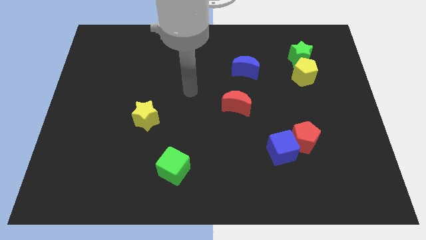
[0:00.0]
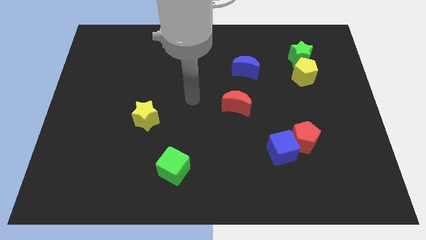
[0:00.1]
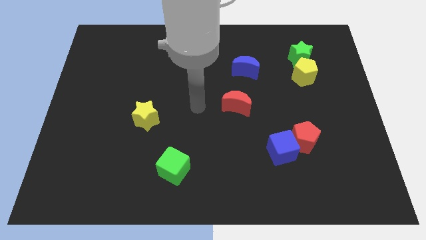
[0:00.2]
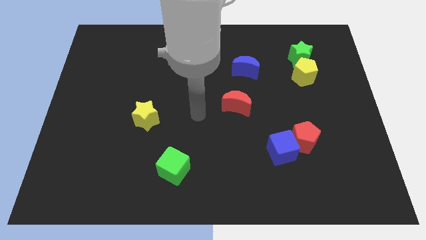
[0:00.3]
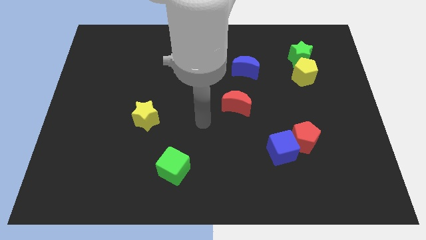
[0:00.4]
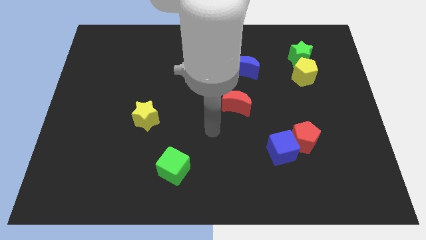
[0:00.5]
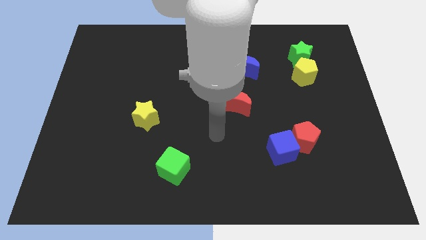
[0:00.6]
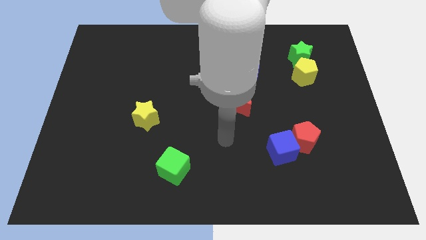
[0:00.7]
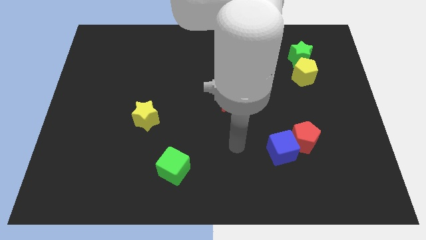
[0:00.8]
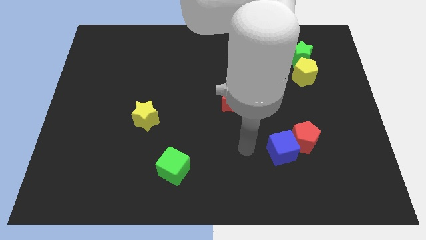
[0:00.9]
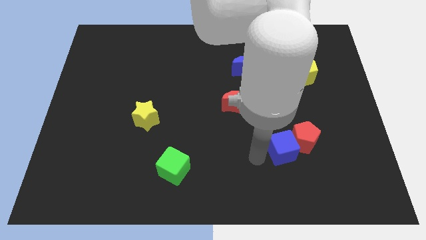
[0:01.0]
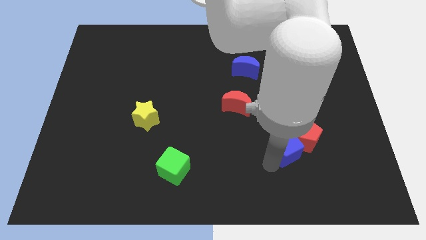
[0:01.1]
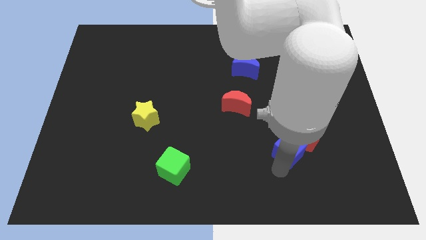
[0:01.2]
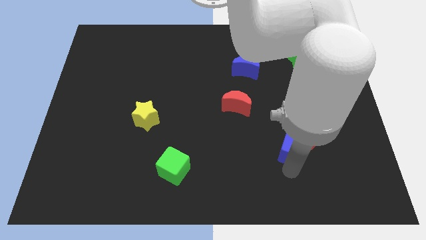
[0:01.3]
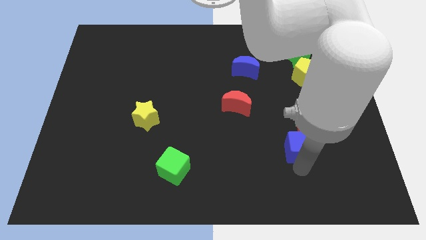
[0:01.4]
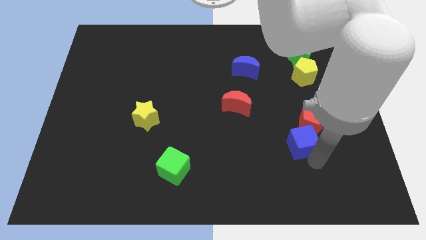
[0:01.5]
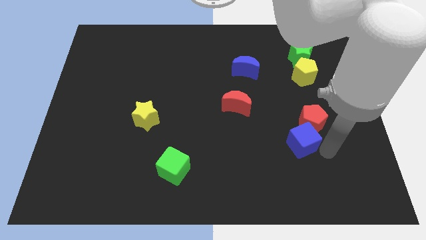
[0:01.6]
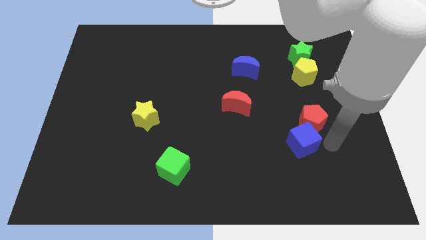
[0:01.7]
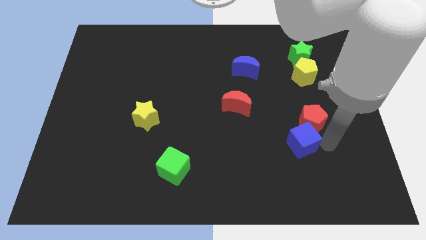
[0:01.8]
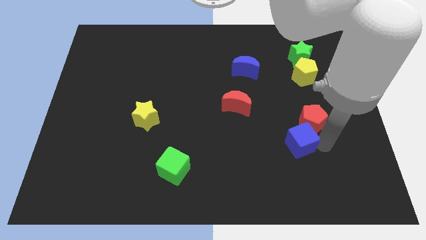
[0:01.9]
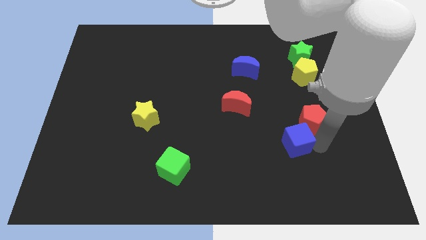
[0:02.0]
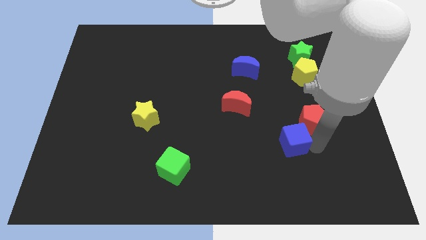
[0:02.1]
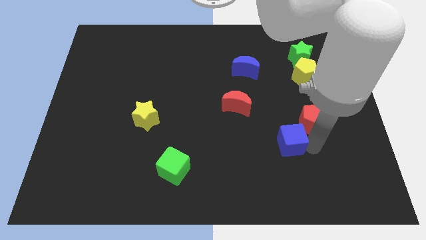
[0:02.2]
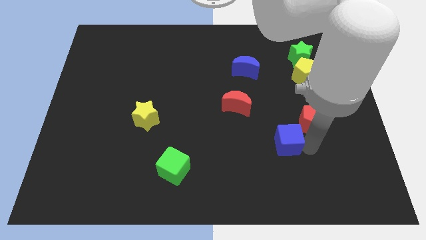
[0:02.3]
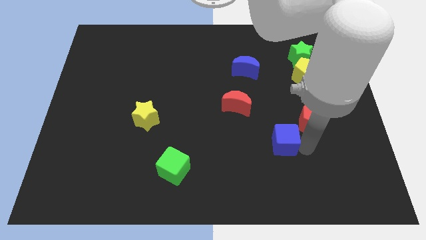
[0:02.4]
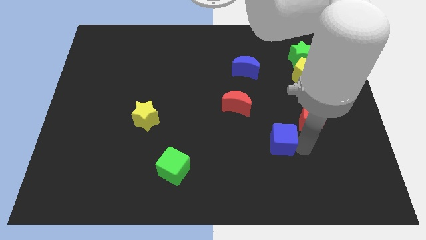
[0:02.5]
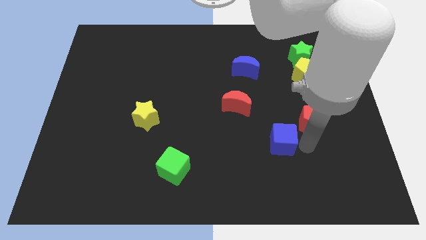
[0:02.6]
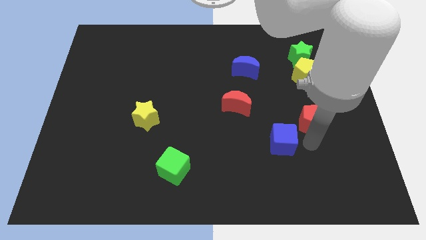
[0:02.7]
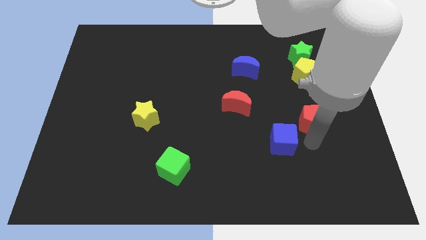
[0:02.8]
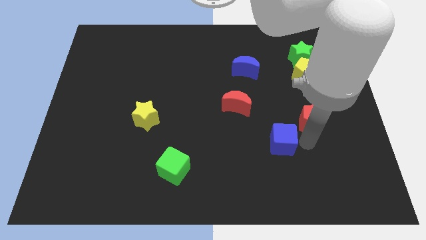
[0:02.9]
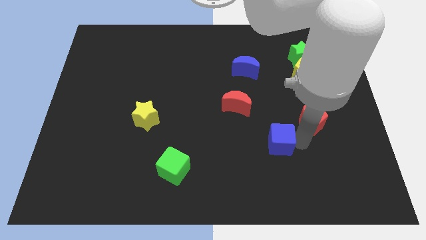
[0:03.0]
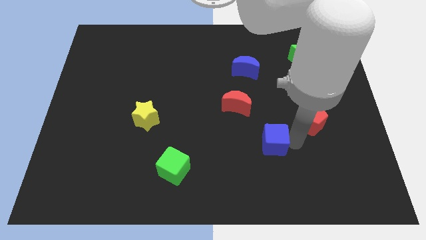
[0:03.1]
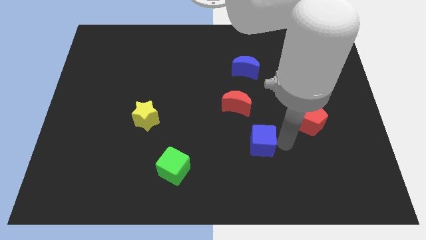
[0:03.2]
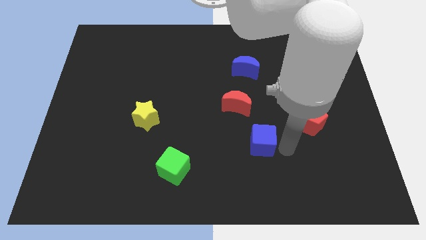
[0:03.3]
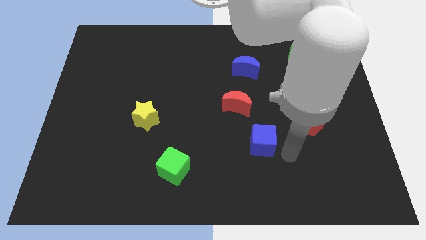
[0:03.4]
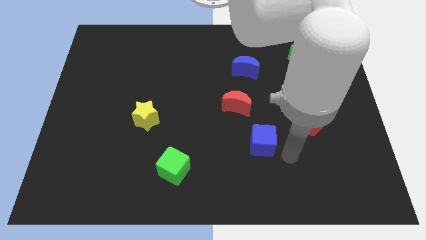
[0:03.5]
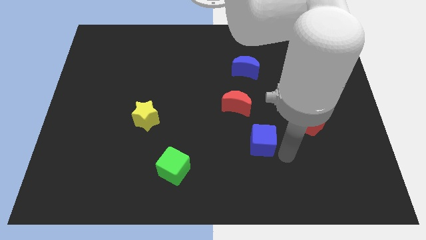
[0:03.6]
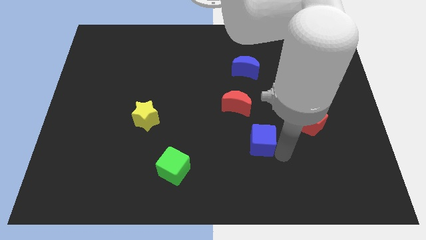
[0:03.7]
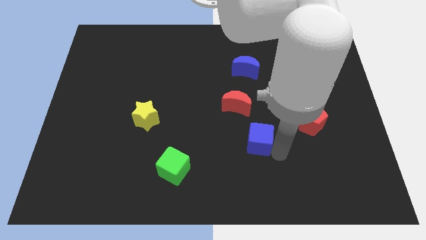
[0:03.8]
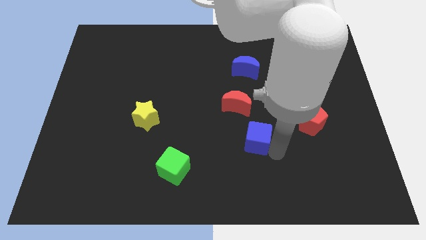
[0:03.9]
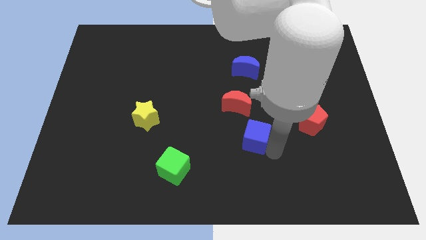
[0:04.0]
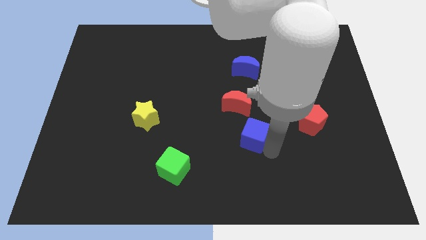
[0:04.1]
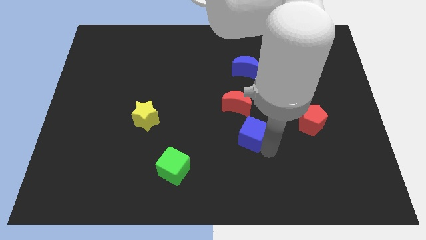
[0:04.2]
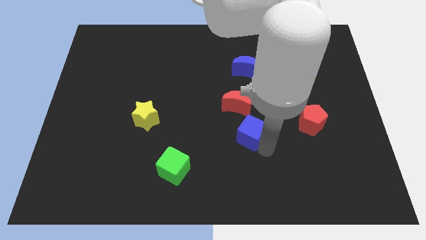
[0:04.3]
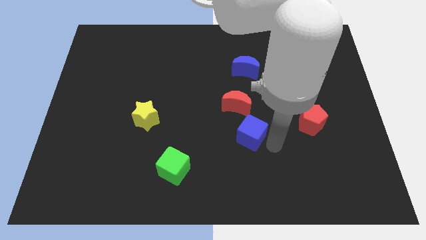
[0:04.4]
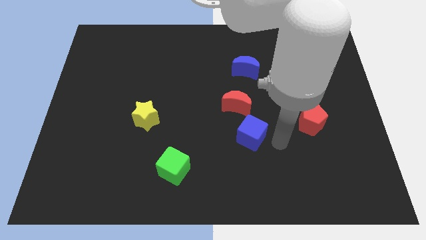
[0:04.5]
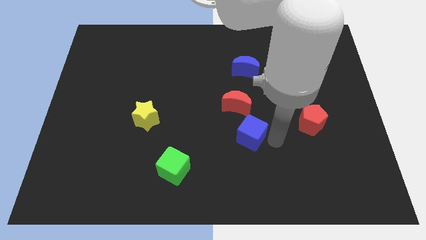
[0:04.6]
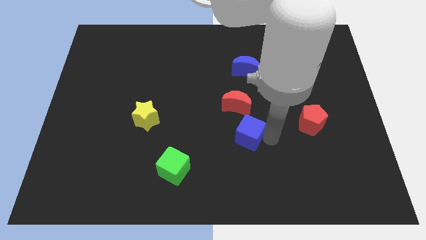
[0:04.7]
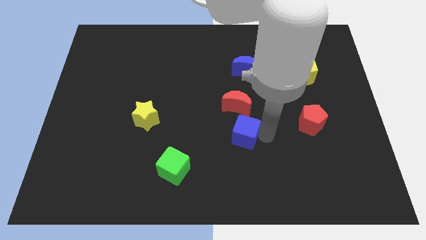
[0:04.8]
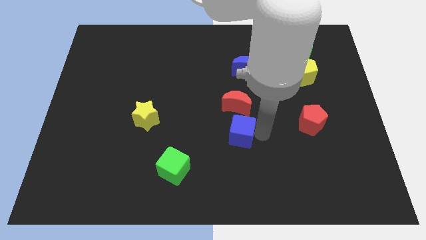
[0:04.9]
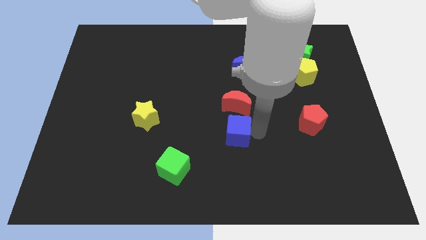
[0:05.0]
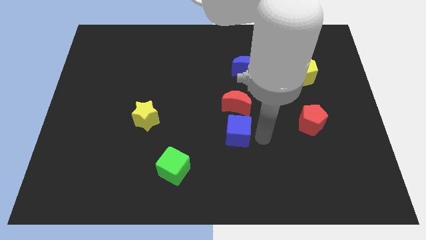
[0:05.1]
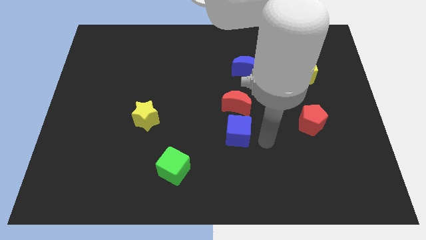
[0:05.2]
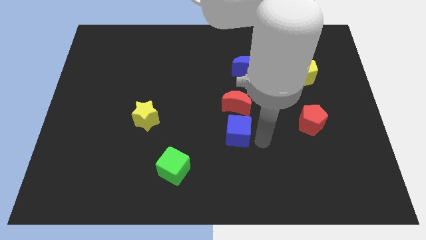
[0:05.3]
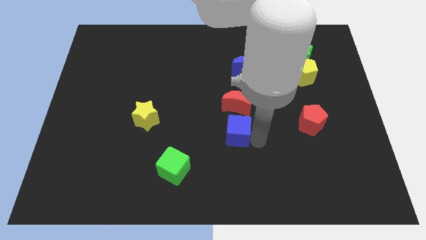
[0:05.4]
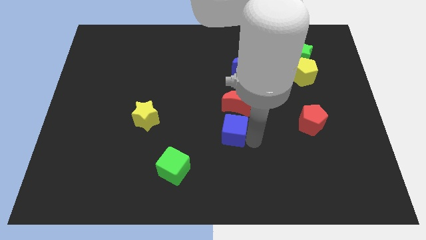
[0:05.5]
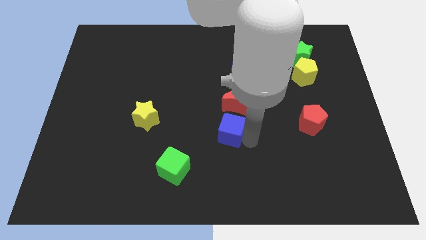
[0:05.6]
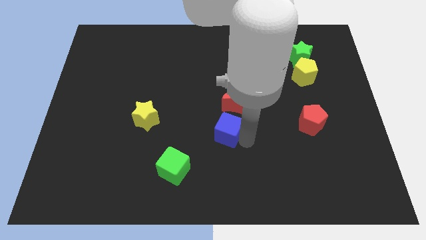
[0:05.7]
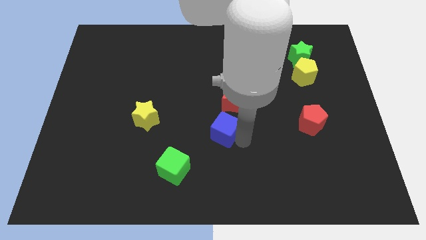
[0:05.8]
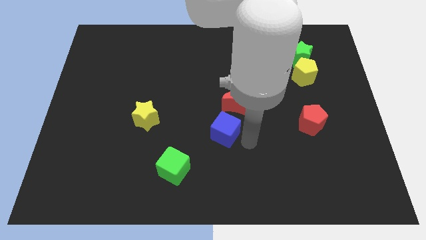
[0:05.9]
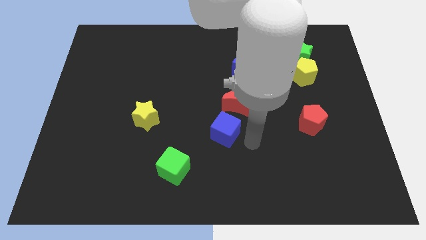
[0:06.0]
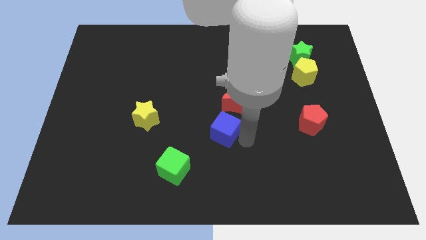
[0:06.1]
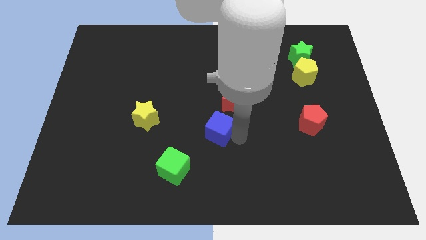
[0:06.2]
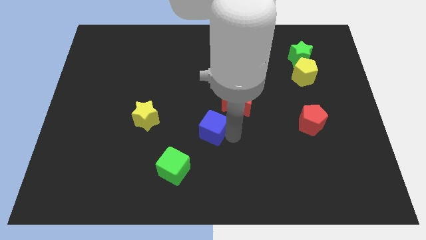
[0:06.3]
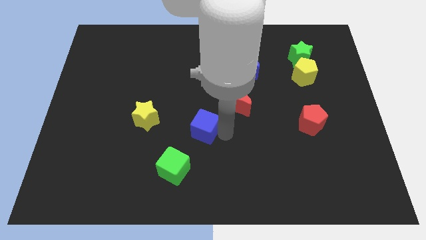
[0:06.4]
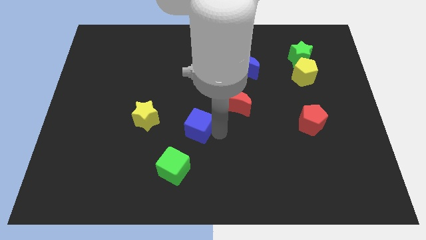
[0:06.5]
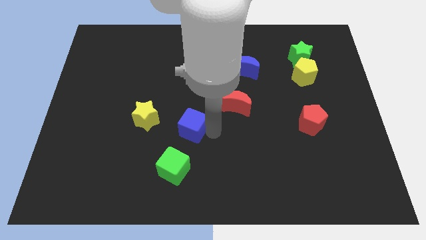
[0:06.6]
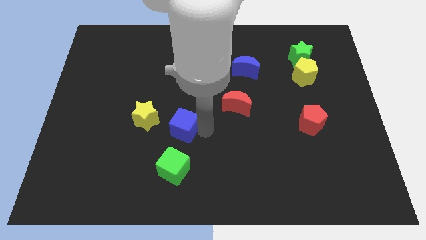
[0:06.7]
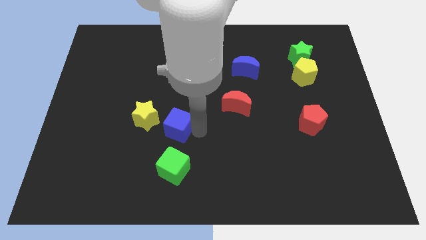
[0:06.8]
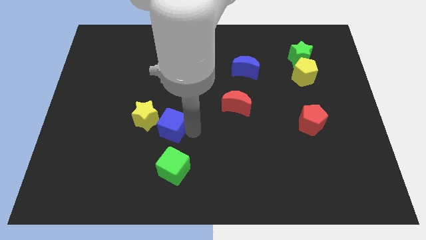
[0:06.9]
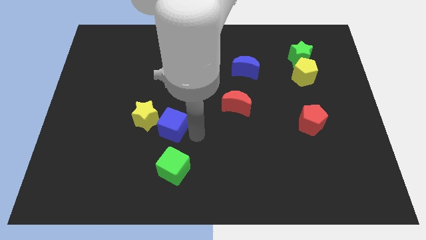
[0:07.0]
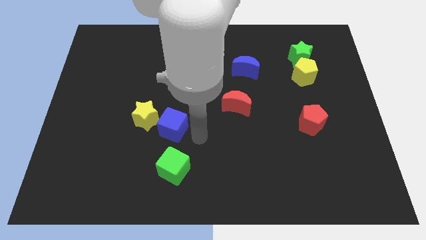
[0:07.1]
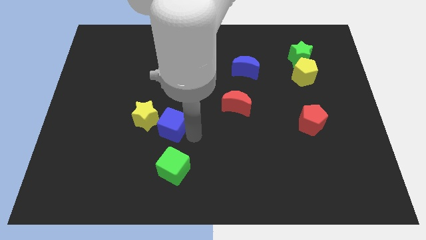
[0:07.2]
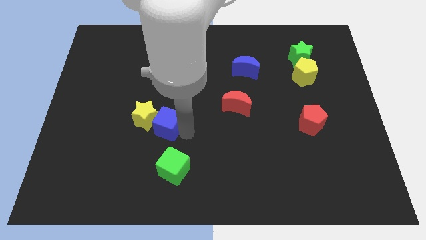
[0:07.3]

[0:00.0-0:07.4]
move the blue cube close to the yellow star
